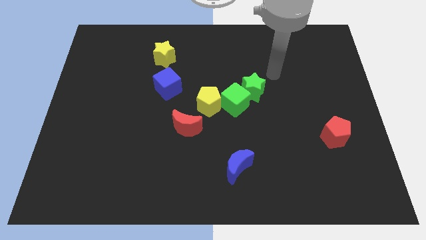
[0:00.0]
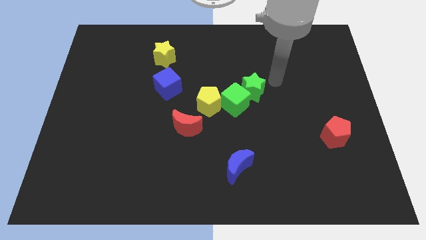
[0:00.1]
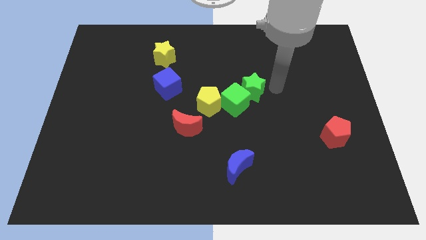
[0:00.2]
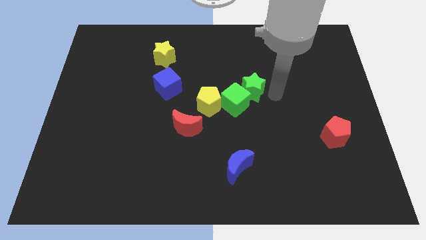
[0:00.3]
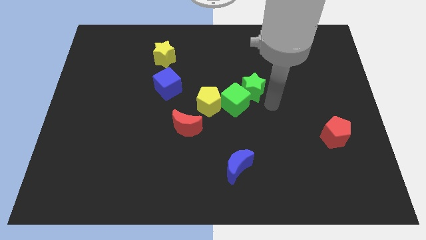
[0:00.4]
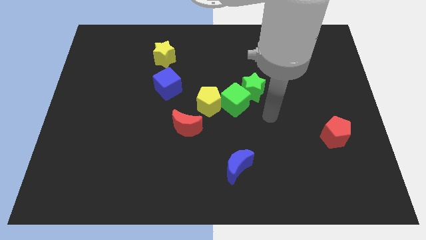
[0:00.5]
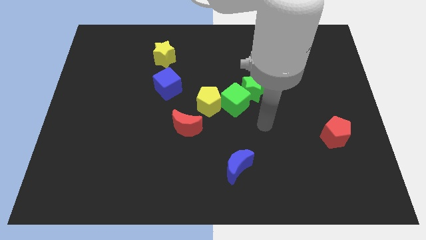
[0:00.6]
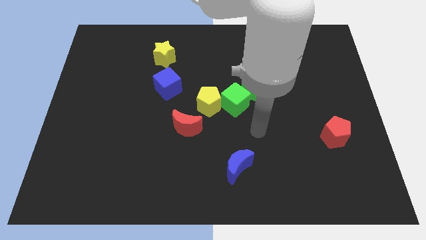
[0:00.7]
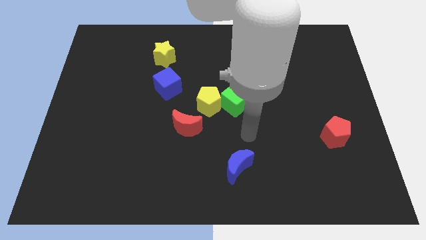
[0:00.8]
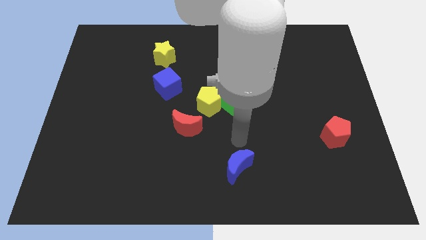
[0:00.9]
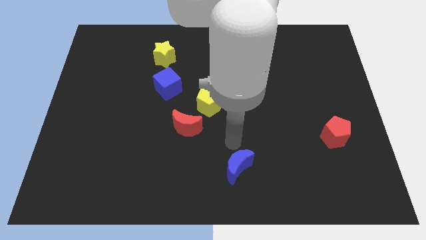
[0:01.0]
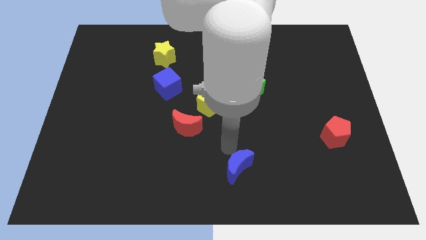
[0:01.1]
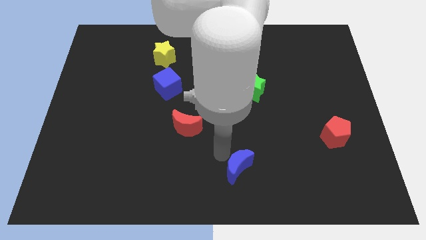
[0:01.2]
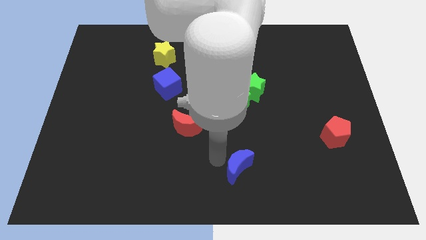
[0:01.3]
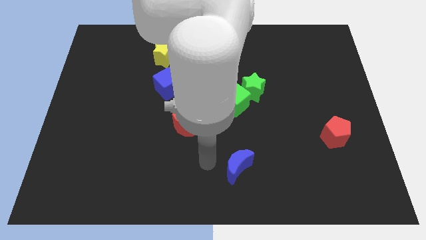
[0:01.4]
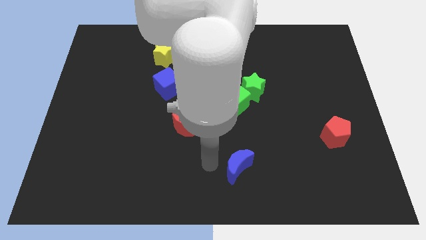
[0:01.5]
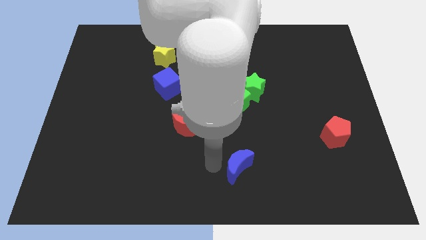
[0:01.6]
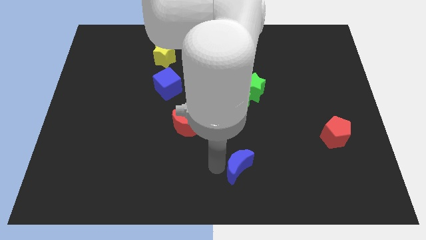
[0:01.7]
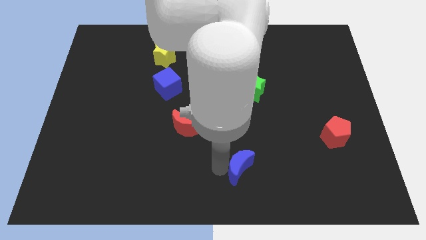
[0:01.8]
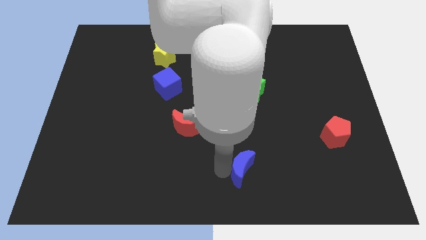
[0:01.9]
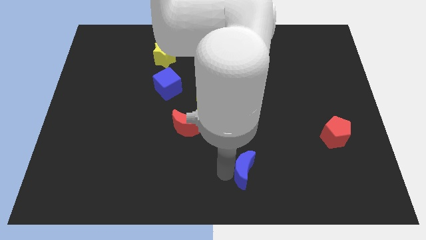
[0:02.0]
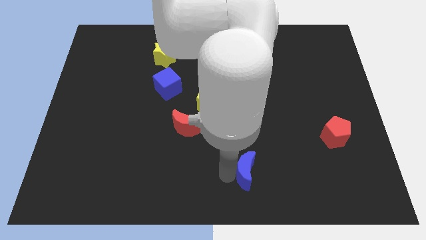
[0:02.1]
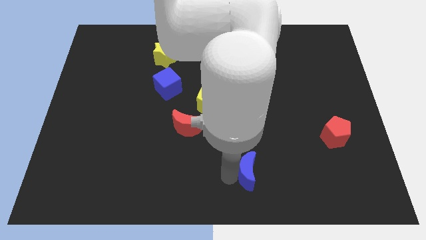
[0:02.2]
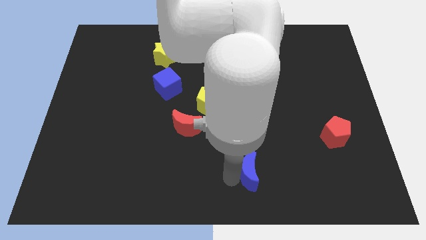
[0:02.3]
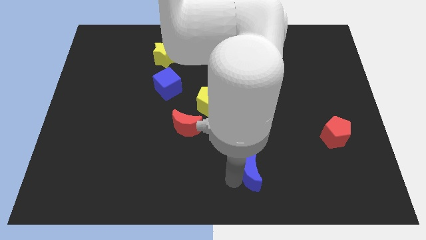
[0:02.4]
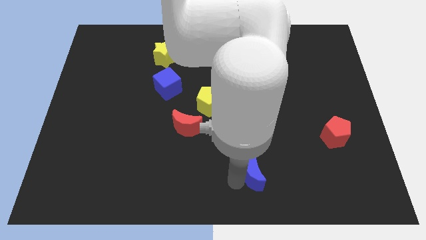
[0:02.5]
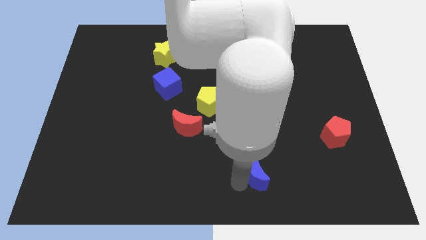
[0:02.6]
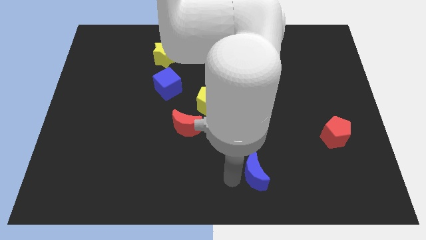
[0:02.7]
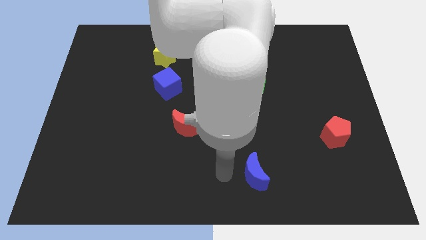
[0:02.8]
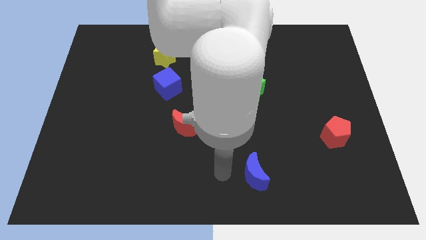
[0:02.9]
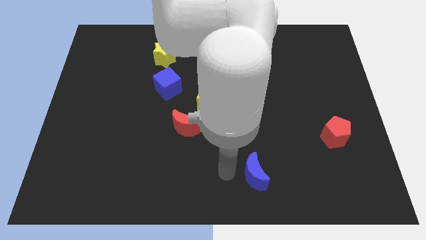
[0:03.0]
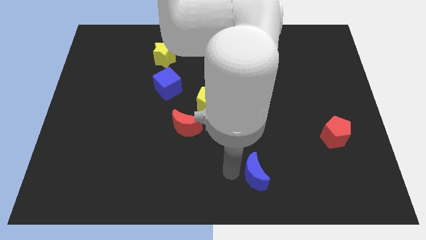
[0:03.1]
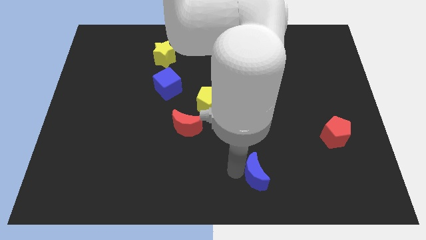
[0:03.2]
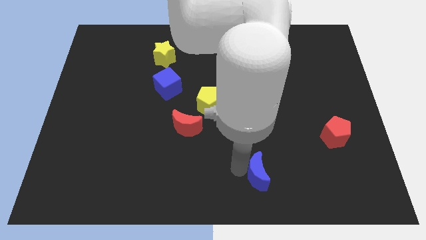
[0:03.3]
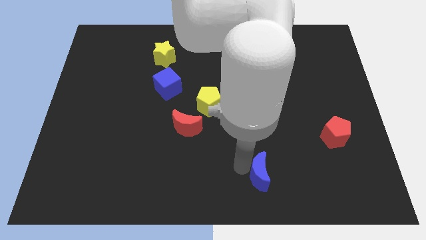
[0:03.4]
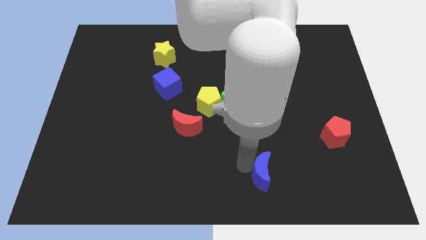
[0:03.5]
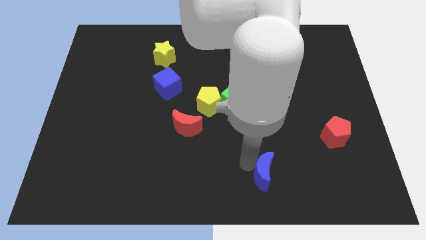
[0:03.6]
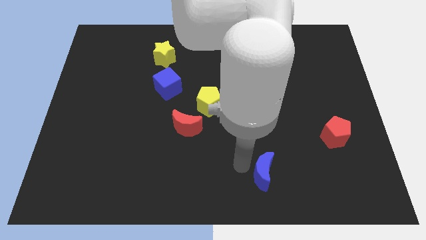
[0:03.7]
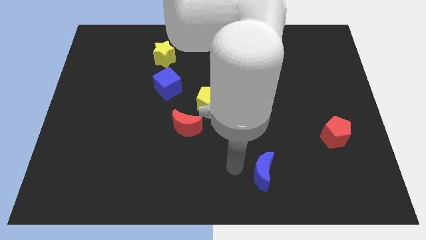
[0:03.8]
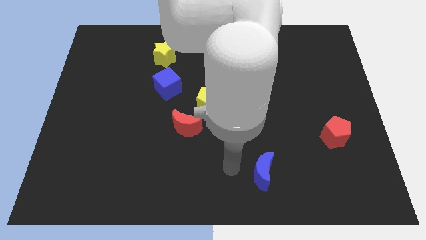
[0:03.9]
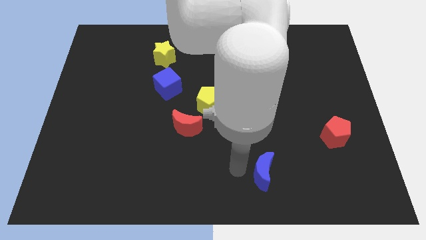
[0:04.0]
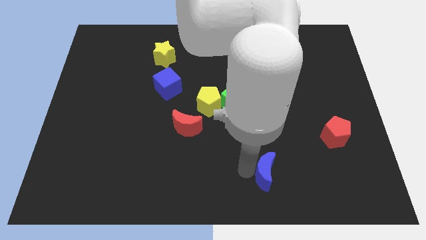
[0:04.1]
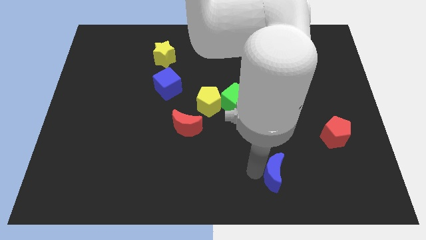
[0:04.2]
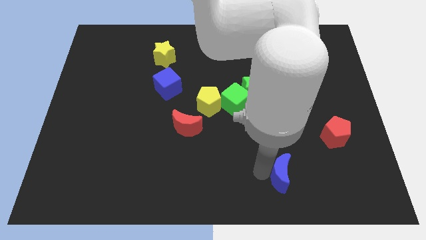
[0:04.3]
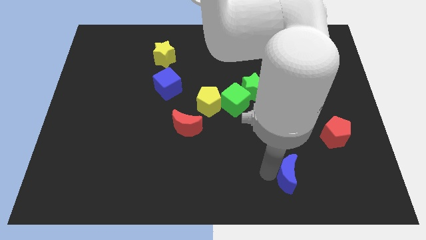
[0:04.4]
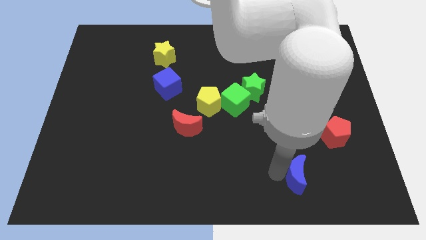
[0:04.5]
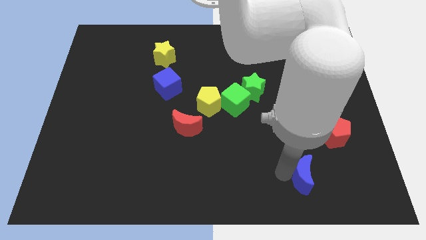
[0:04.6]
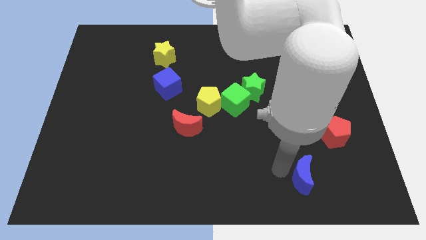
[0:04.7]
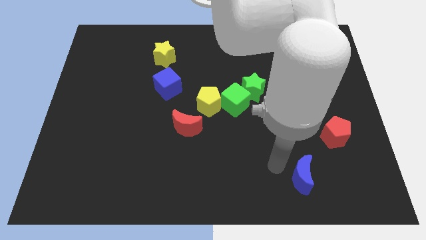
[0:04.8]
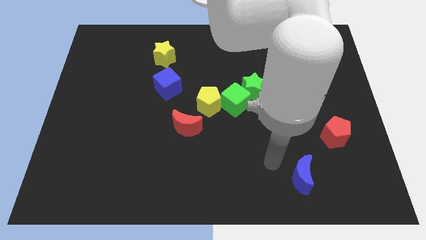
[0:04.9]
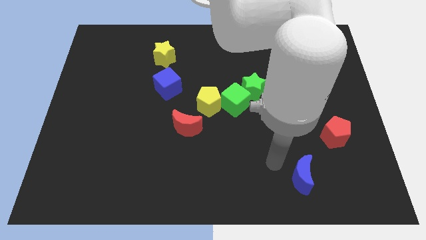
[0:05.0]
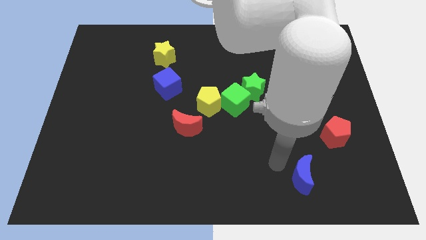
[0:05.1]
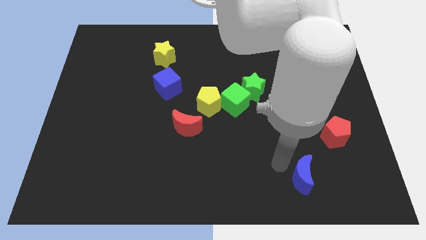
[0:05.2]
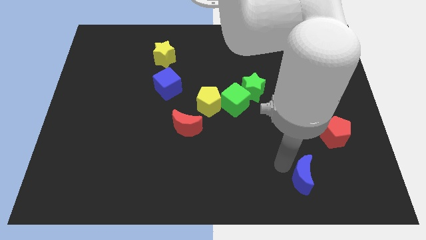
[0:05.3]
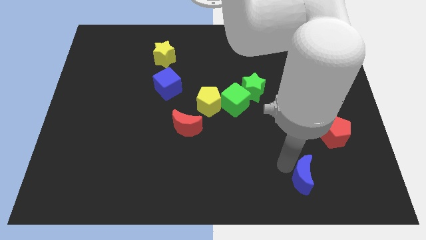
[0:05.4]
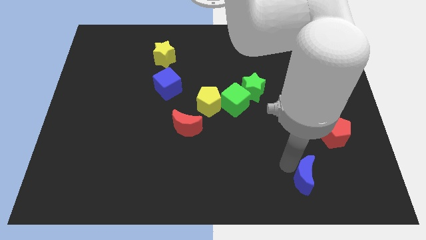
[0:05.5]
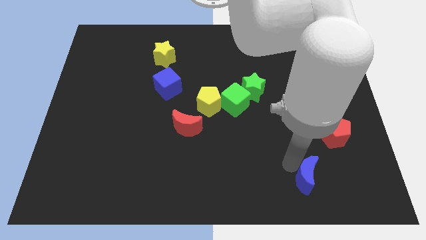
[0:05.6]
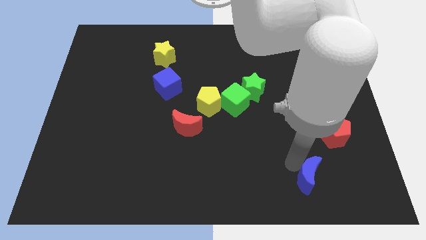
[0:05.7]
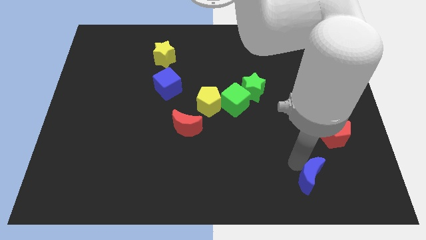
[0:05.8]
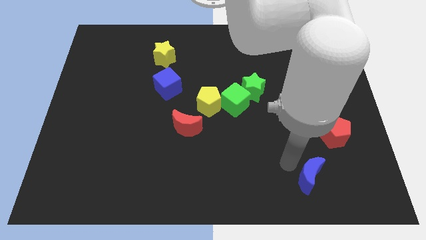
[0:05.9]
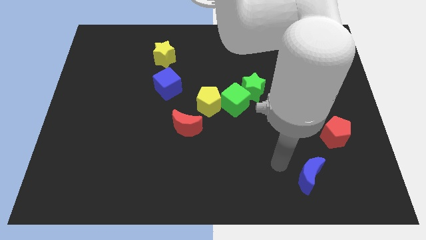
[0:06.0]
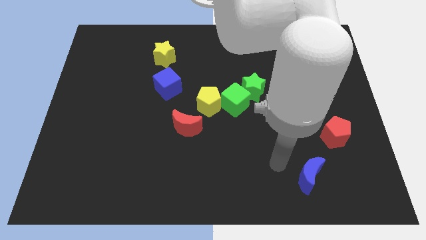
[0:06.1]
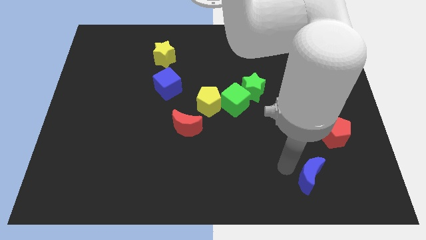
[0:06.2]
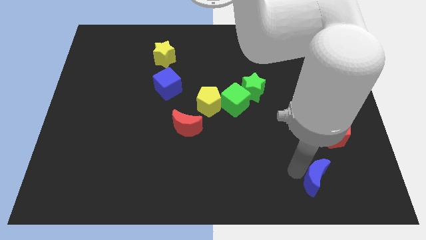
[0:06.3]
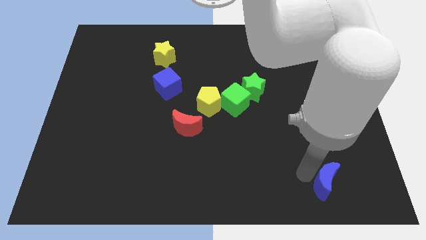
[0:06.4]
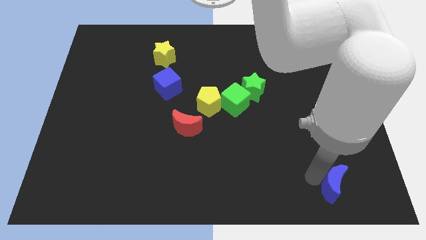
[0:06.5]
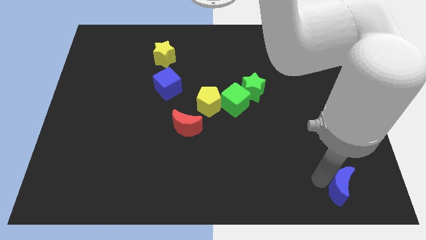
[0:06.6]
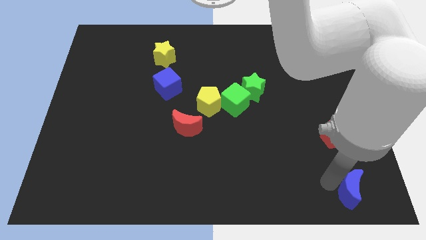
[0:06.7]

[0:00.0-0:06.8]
move the blue moon to the bottom right
